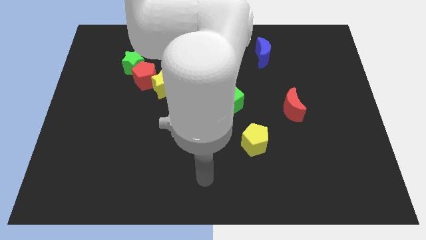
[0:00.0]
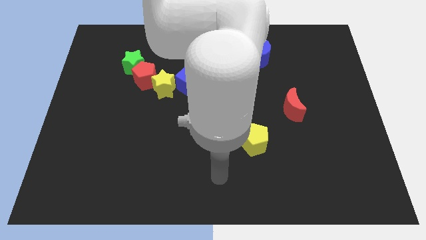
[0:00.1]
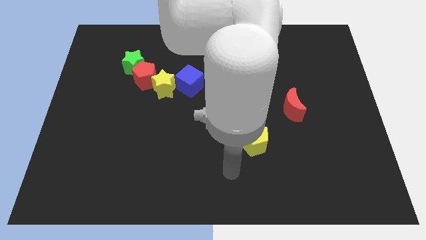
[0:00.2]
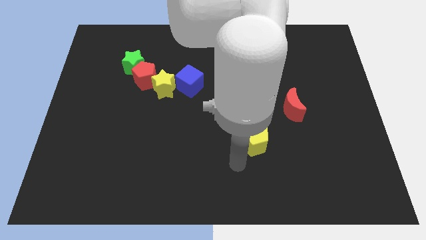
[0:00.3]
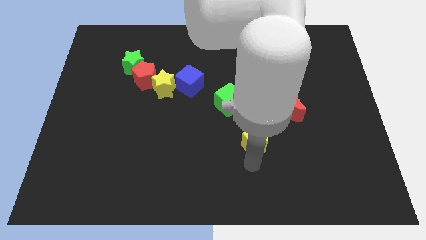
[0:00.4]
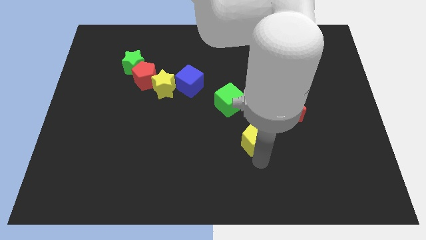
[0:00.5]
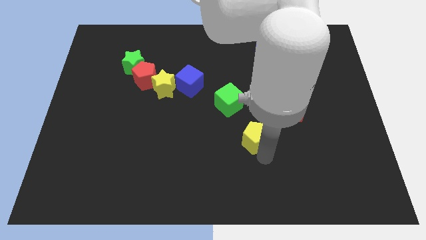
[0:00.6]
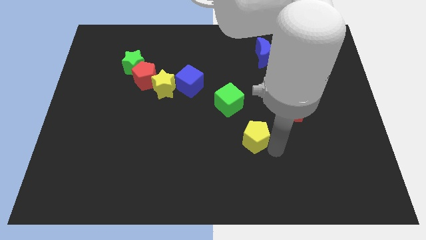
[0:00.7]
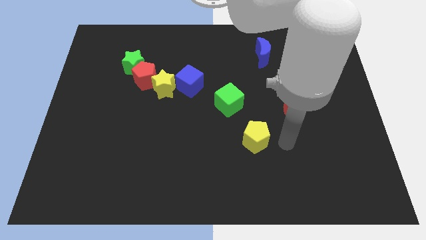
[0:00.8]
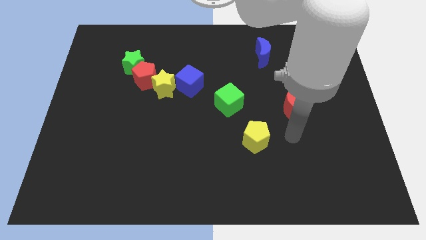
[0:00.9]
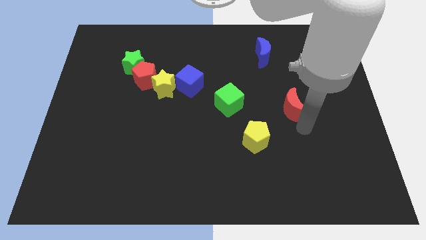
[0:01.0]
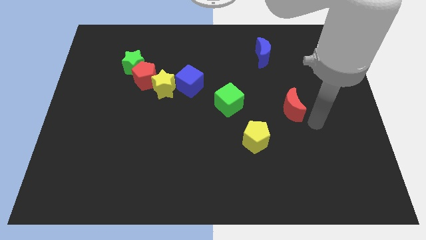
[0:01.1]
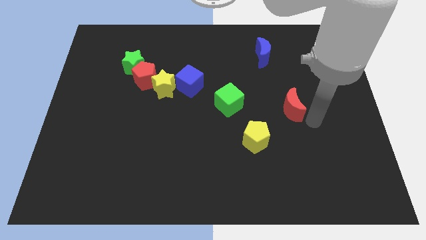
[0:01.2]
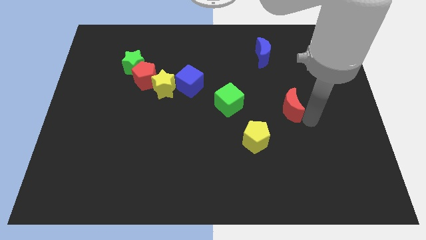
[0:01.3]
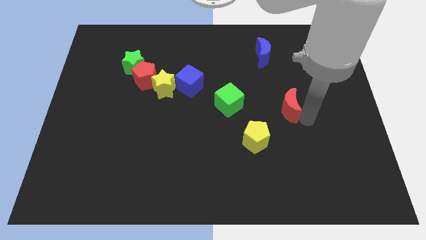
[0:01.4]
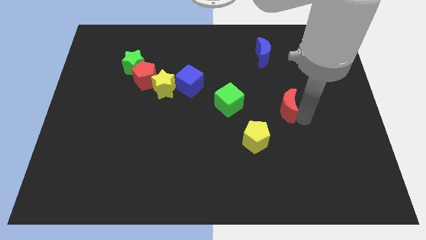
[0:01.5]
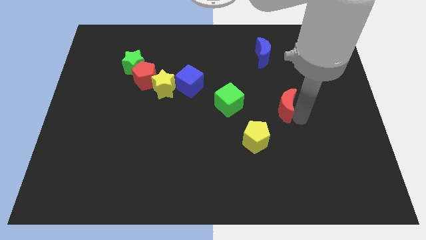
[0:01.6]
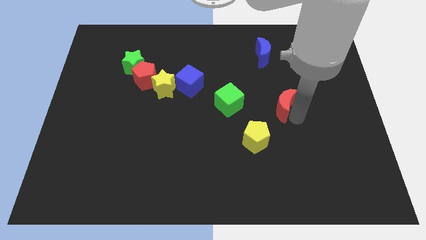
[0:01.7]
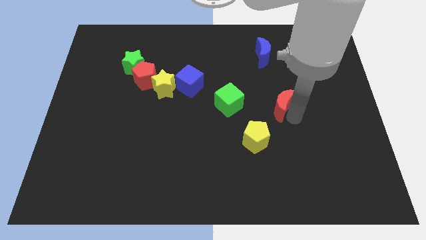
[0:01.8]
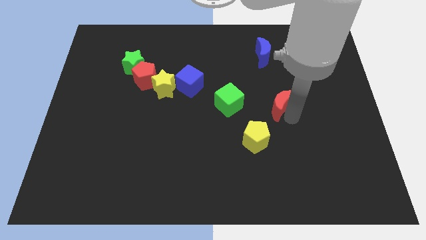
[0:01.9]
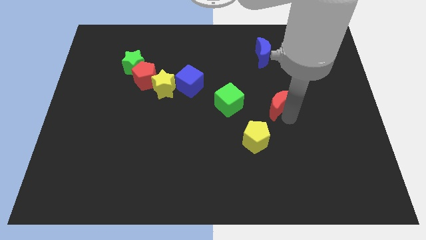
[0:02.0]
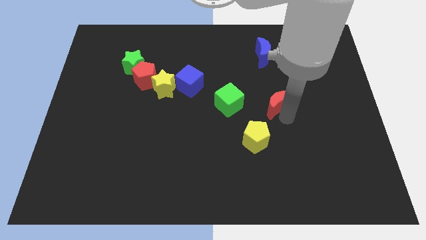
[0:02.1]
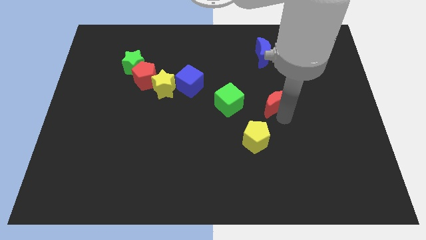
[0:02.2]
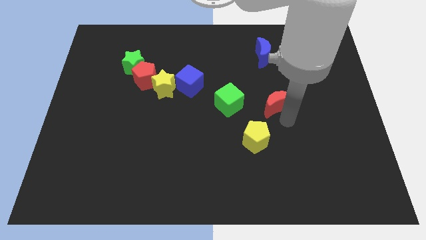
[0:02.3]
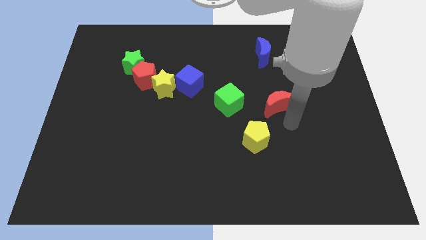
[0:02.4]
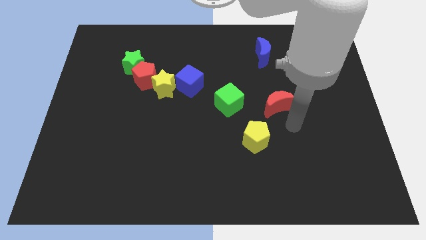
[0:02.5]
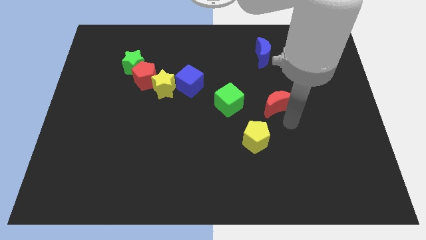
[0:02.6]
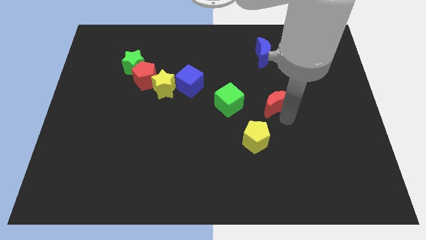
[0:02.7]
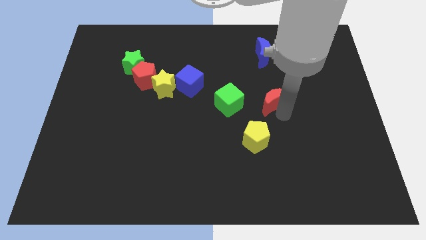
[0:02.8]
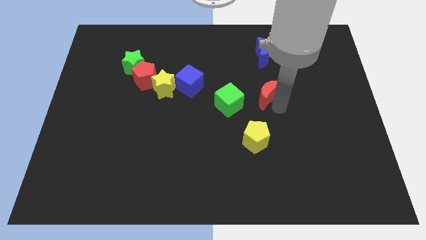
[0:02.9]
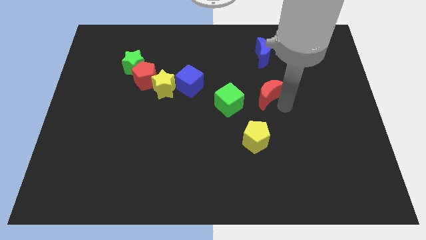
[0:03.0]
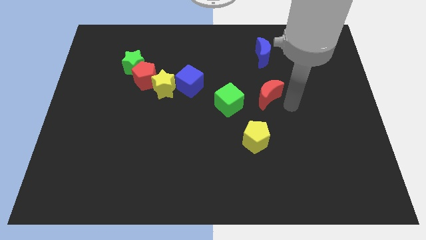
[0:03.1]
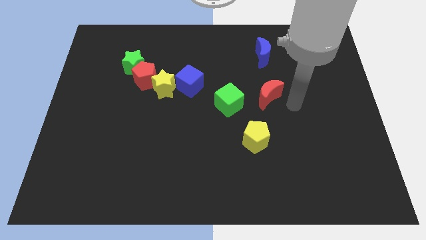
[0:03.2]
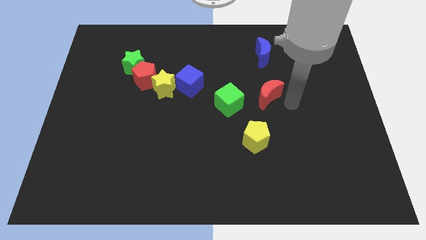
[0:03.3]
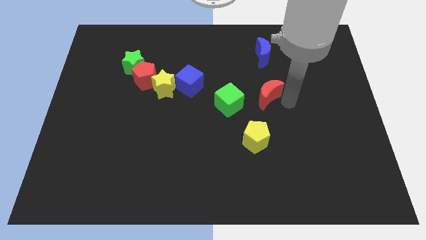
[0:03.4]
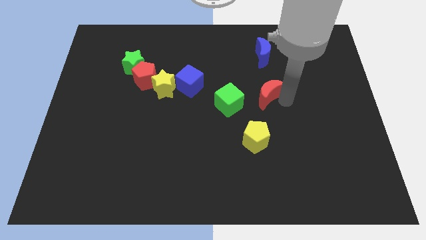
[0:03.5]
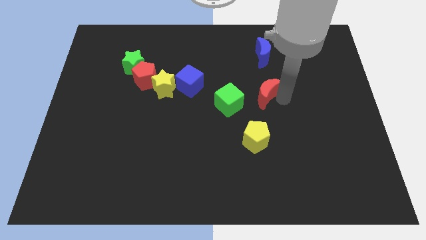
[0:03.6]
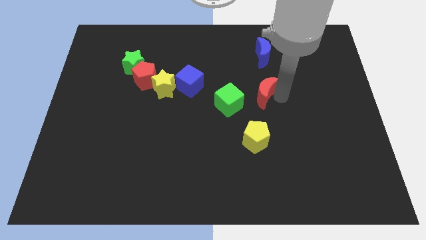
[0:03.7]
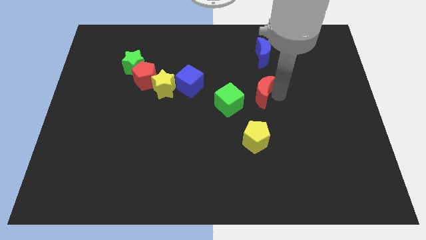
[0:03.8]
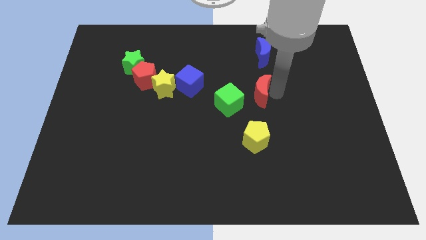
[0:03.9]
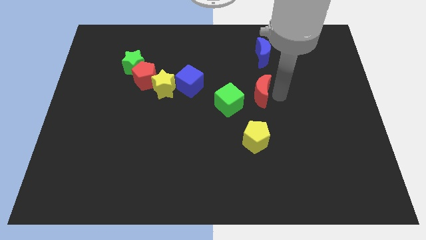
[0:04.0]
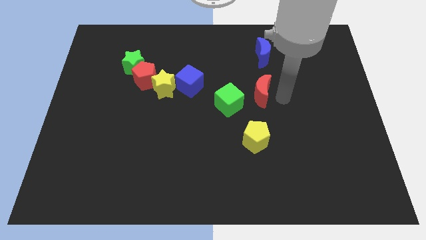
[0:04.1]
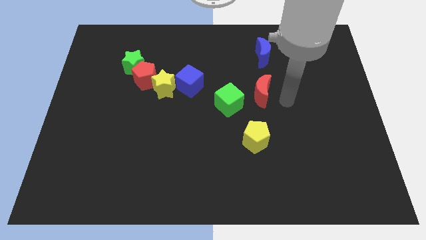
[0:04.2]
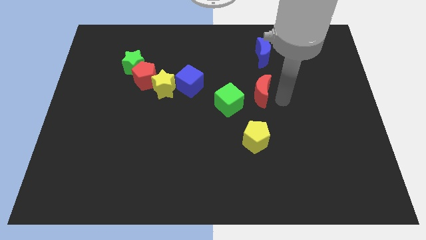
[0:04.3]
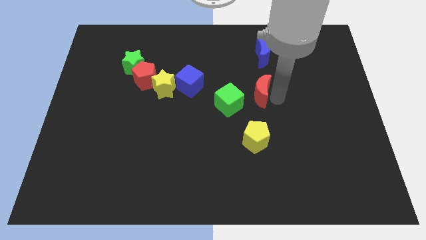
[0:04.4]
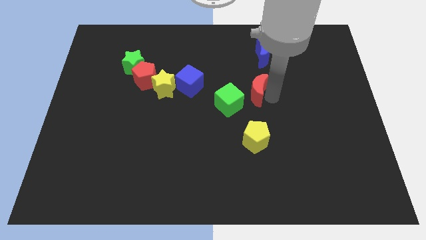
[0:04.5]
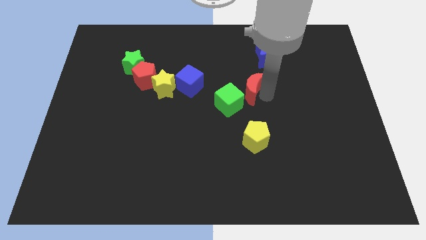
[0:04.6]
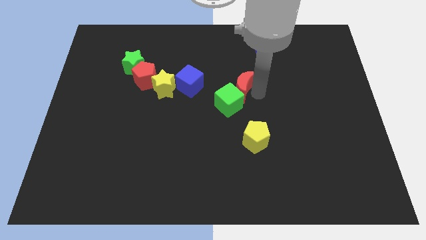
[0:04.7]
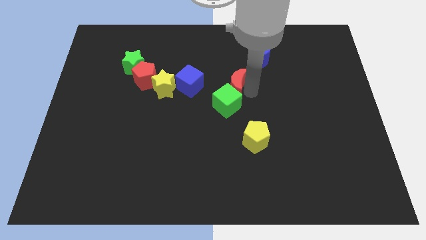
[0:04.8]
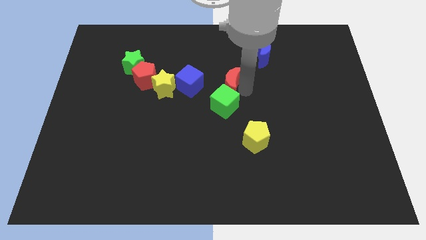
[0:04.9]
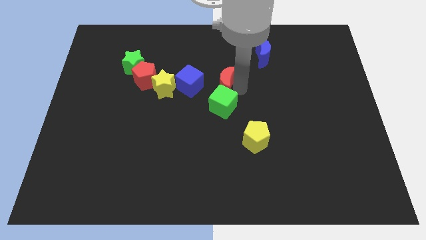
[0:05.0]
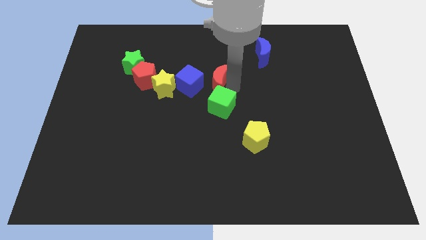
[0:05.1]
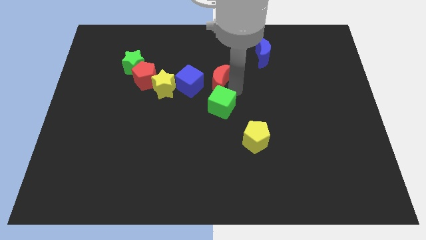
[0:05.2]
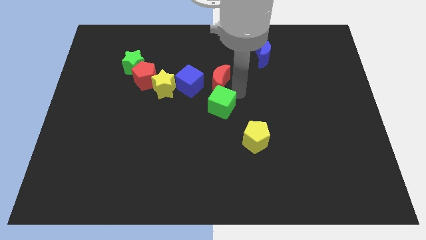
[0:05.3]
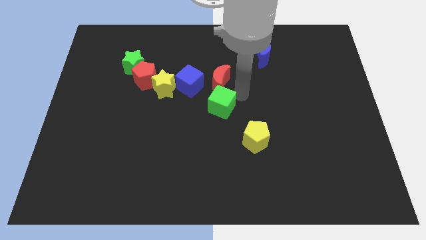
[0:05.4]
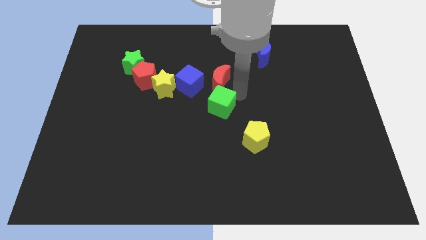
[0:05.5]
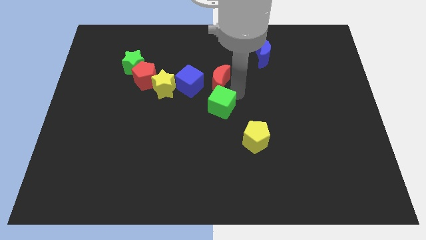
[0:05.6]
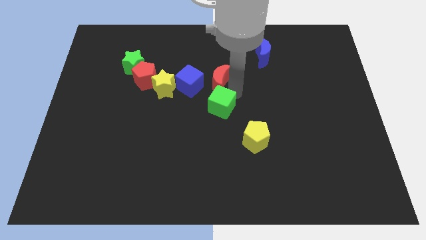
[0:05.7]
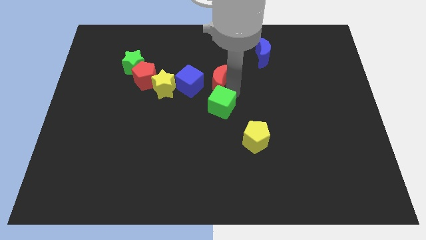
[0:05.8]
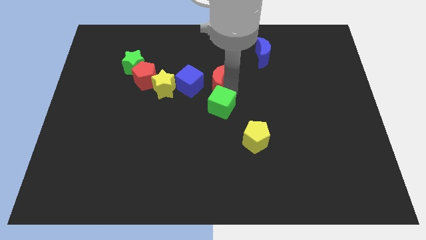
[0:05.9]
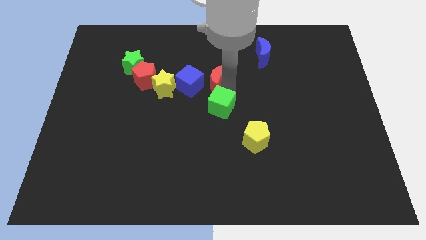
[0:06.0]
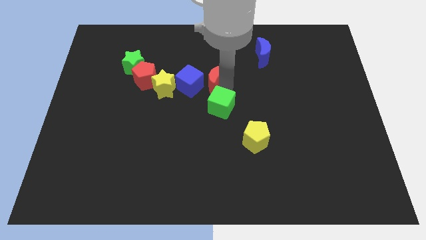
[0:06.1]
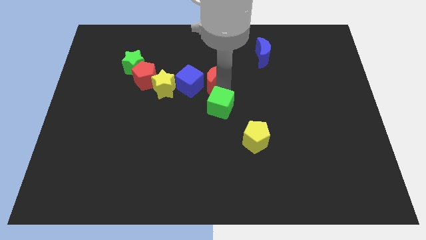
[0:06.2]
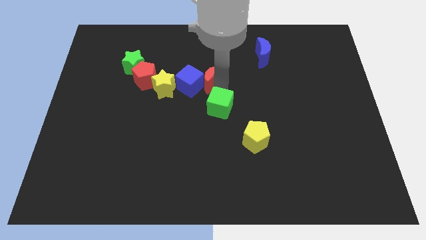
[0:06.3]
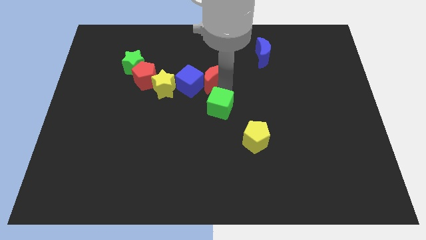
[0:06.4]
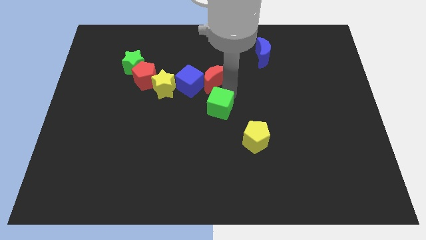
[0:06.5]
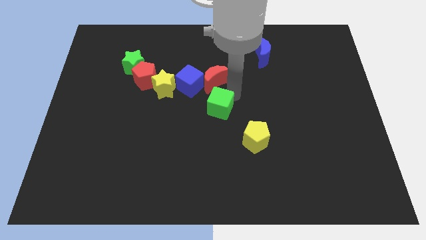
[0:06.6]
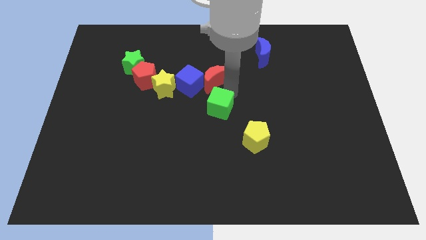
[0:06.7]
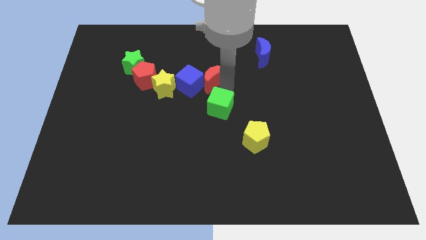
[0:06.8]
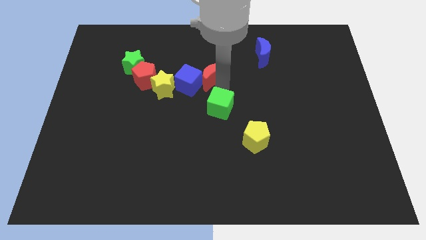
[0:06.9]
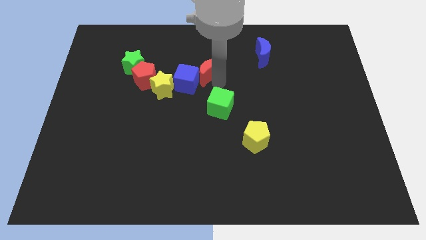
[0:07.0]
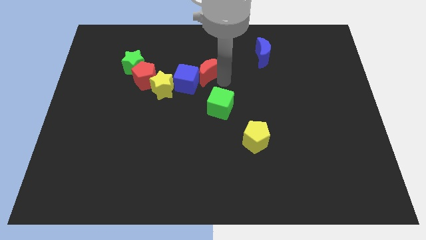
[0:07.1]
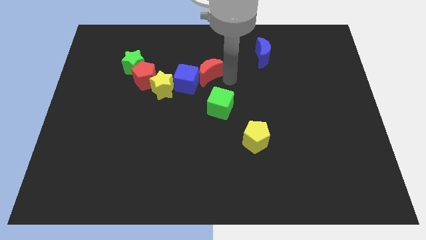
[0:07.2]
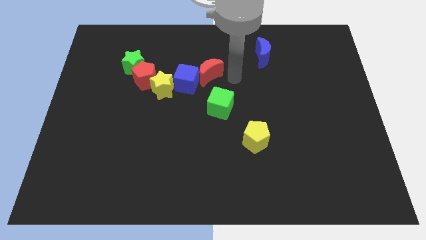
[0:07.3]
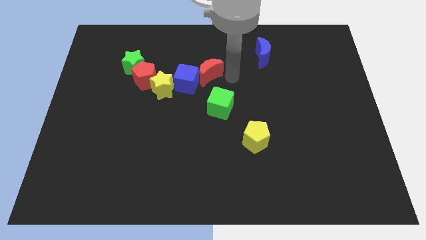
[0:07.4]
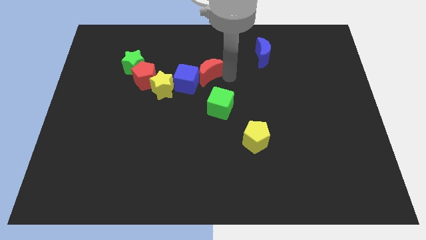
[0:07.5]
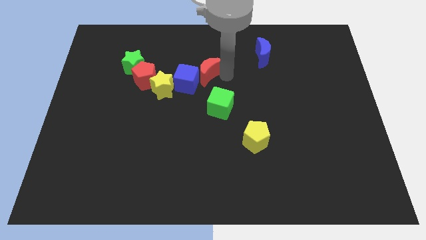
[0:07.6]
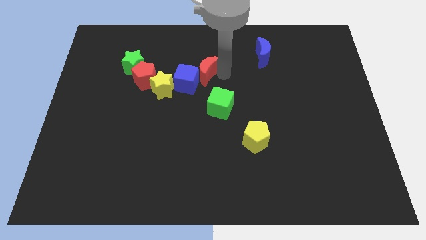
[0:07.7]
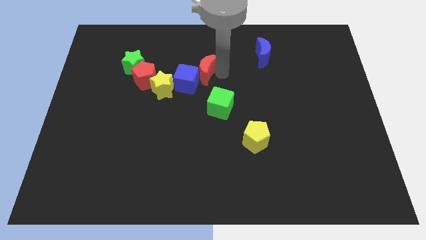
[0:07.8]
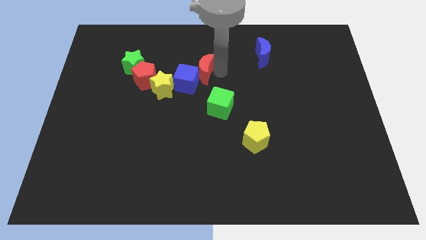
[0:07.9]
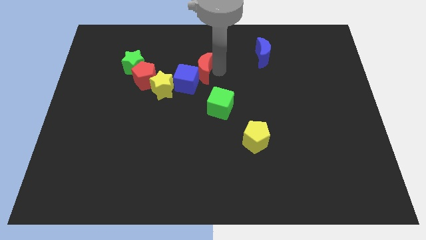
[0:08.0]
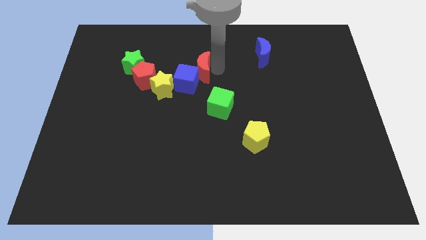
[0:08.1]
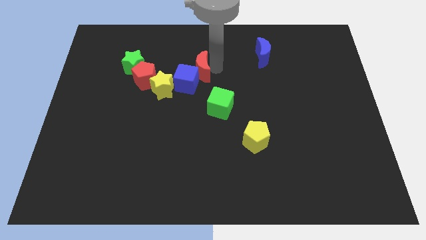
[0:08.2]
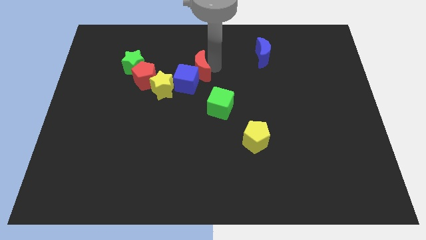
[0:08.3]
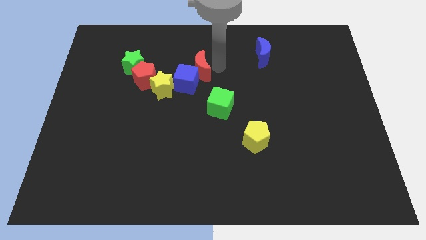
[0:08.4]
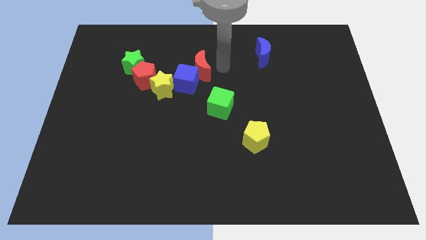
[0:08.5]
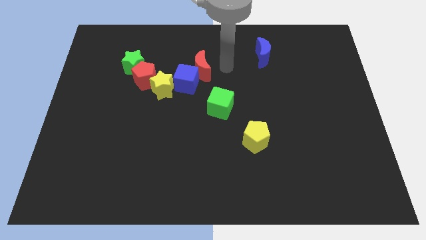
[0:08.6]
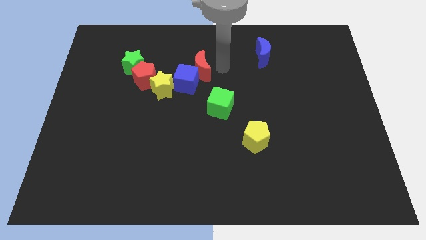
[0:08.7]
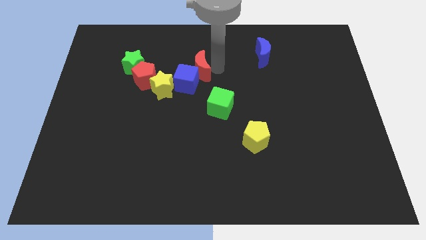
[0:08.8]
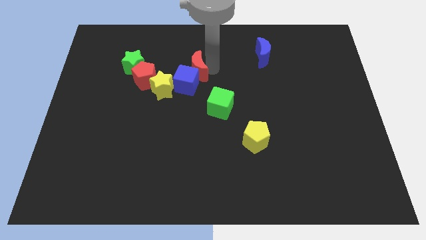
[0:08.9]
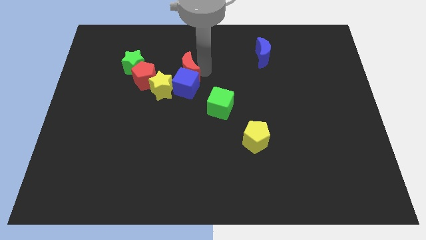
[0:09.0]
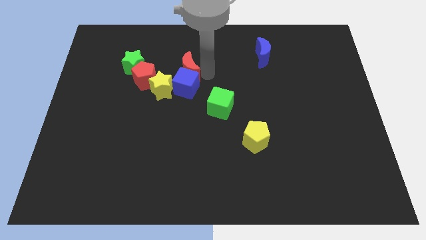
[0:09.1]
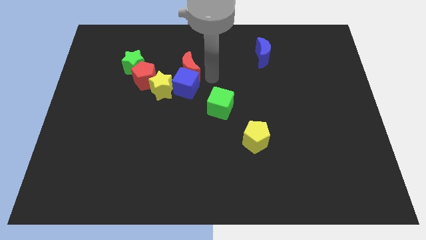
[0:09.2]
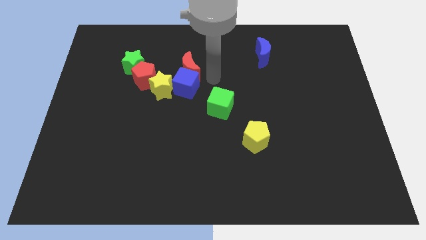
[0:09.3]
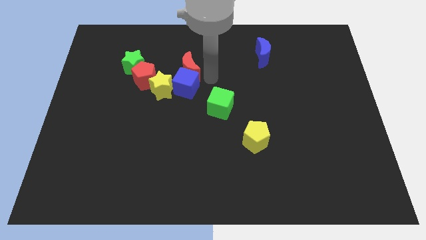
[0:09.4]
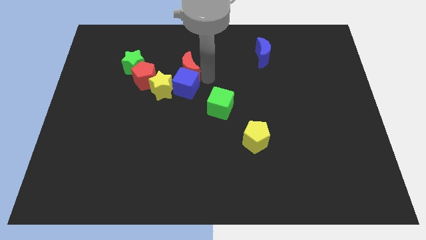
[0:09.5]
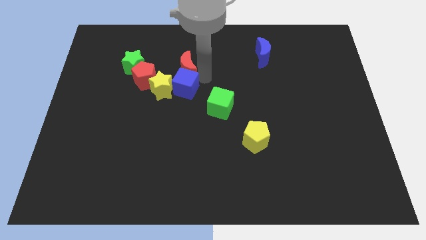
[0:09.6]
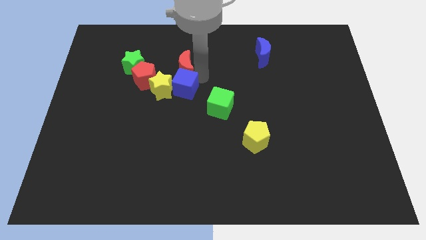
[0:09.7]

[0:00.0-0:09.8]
push the red moon to the top right side of the red pentagon
